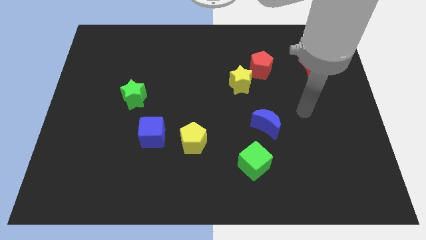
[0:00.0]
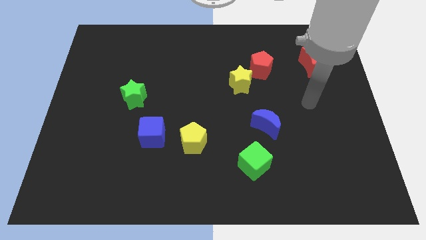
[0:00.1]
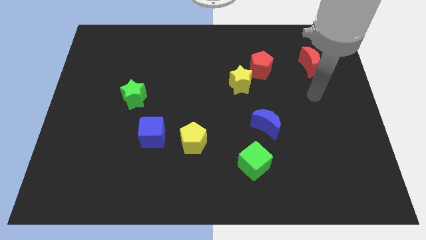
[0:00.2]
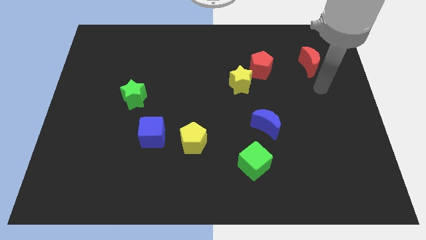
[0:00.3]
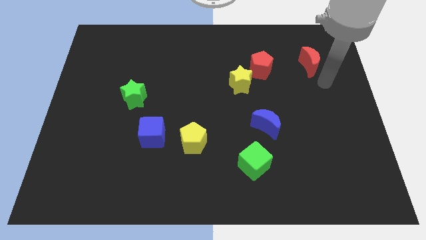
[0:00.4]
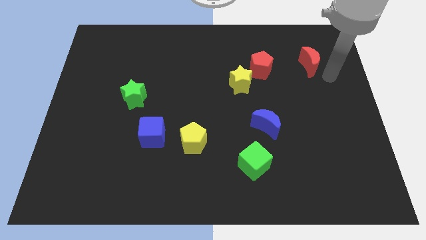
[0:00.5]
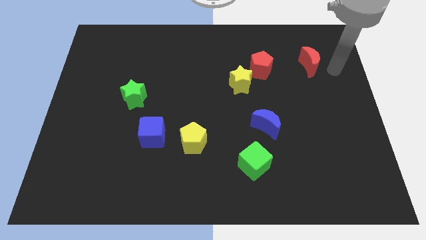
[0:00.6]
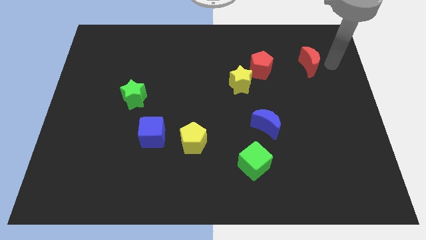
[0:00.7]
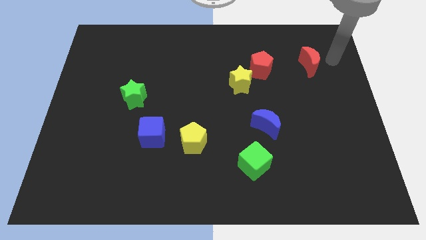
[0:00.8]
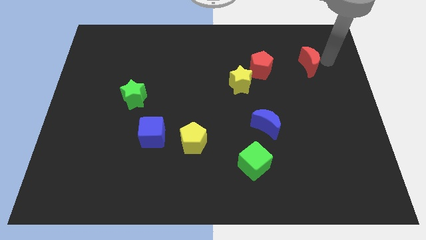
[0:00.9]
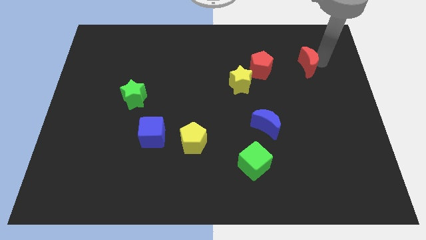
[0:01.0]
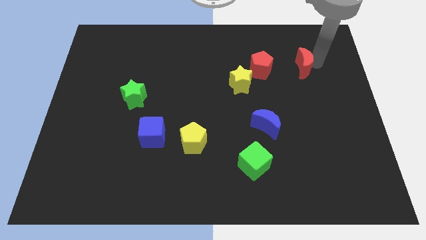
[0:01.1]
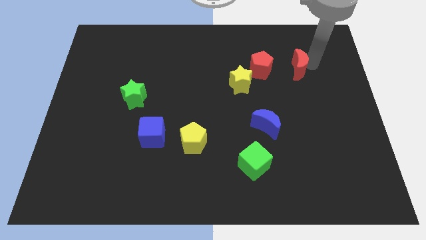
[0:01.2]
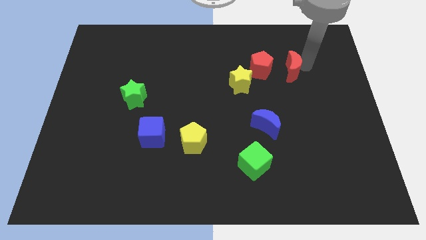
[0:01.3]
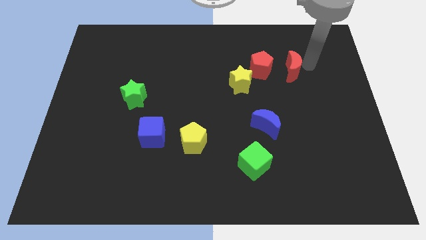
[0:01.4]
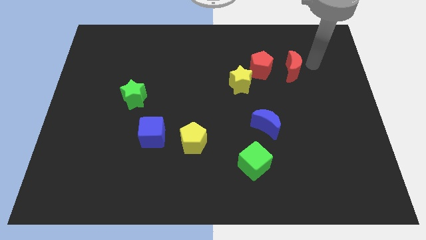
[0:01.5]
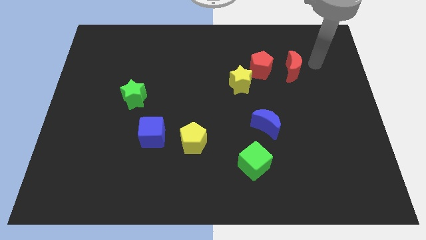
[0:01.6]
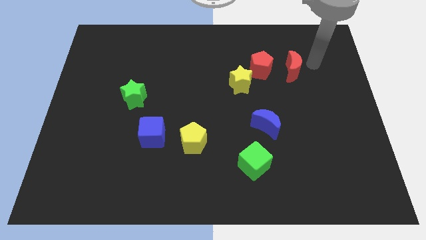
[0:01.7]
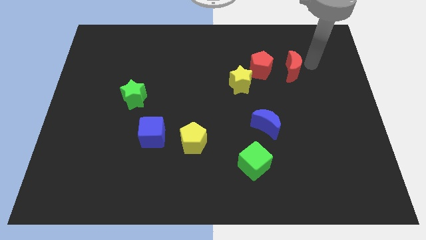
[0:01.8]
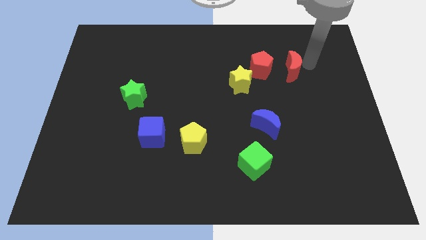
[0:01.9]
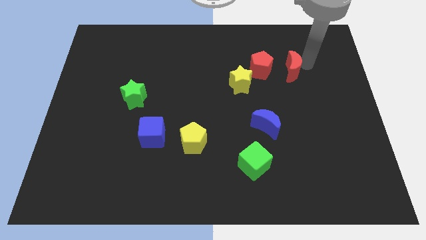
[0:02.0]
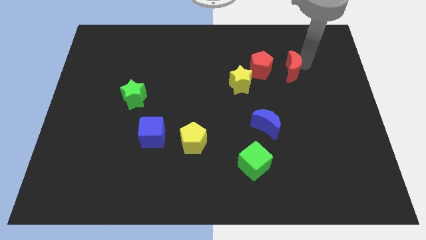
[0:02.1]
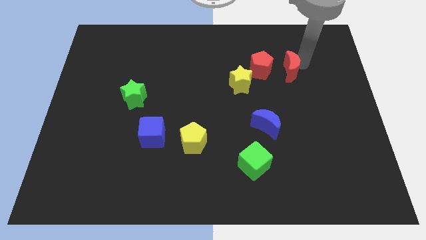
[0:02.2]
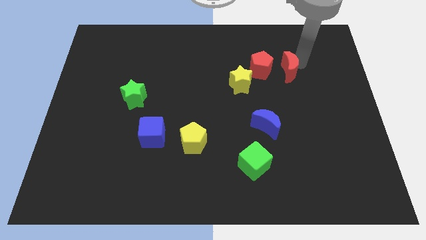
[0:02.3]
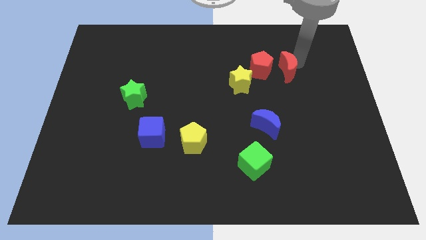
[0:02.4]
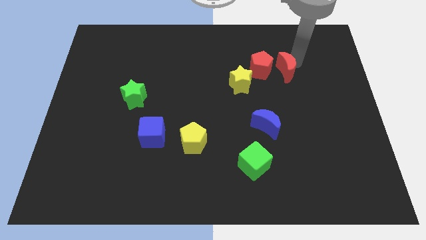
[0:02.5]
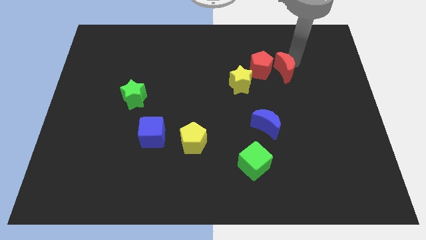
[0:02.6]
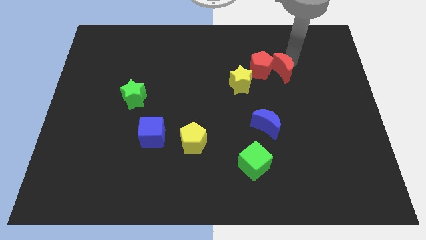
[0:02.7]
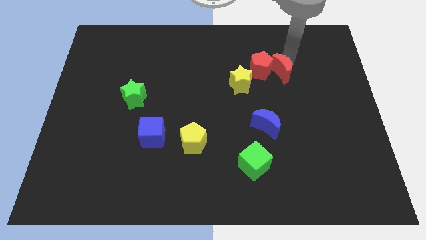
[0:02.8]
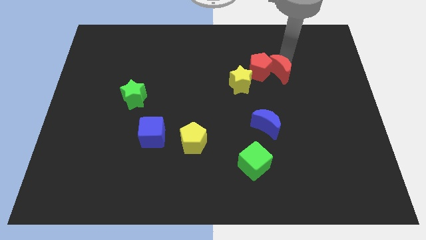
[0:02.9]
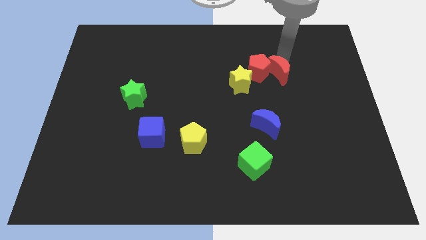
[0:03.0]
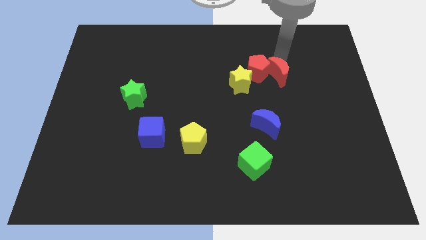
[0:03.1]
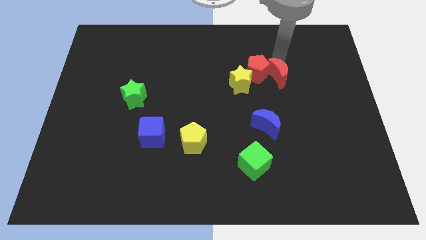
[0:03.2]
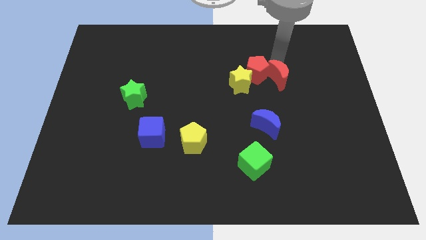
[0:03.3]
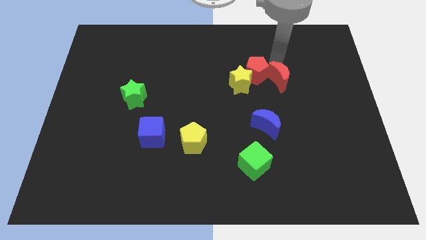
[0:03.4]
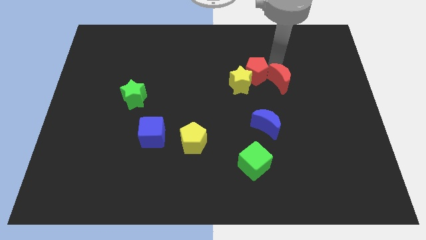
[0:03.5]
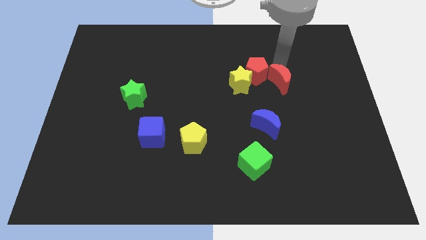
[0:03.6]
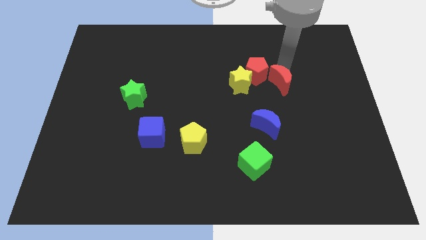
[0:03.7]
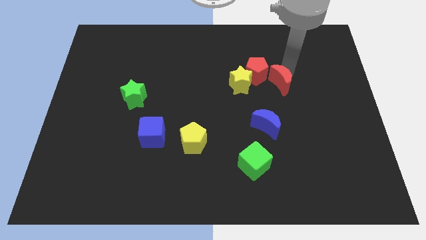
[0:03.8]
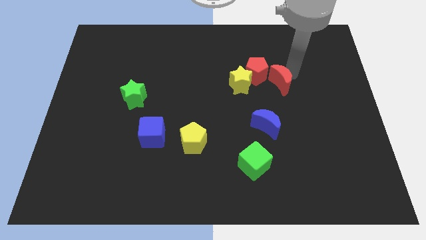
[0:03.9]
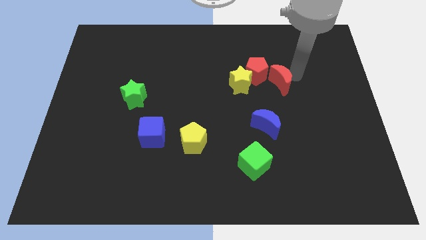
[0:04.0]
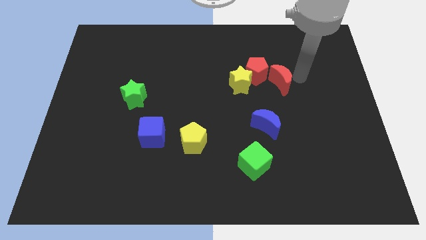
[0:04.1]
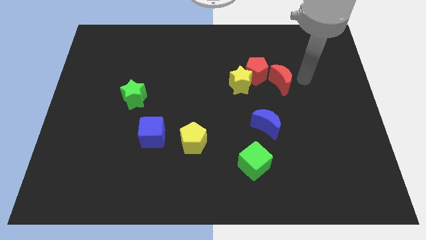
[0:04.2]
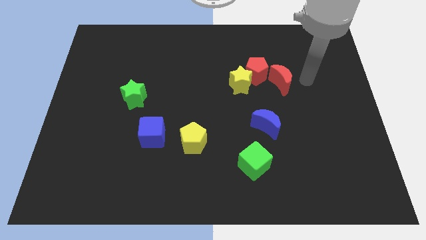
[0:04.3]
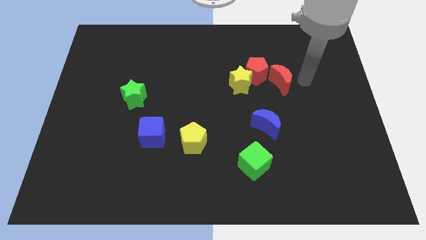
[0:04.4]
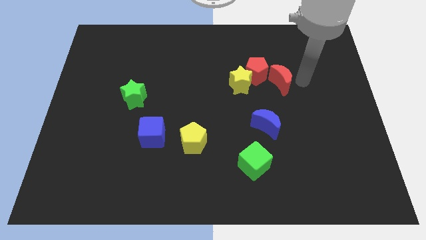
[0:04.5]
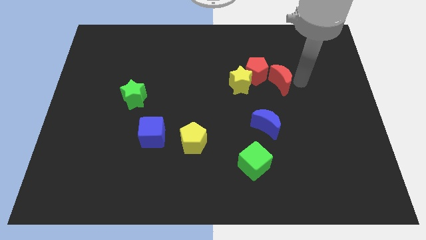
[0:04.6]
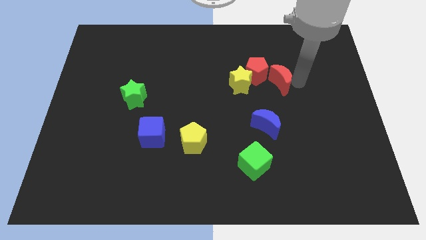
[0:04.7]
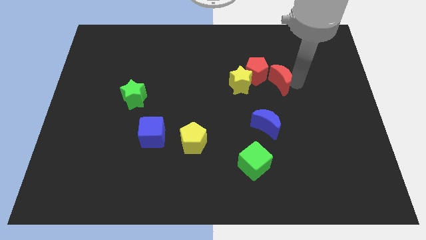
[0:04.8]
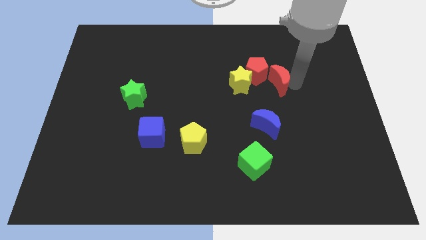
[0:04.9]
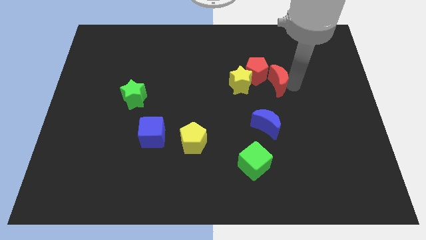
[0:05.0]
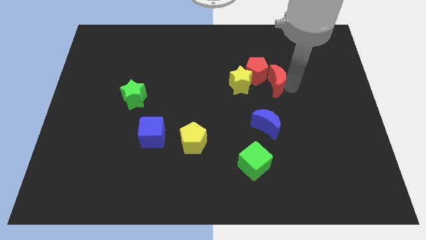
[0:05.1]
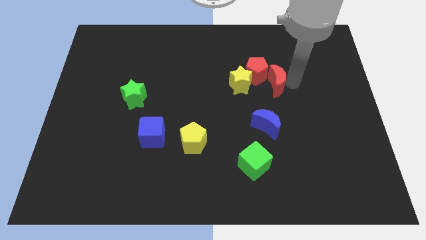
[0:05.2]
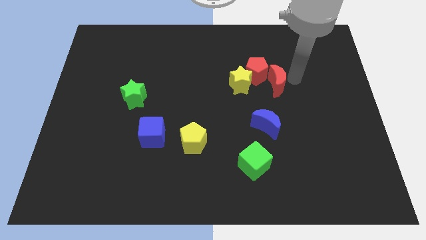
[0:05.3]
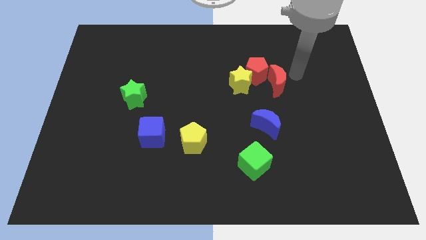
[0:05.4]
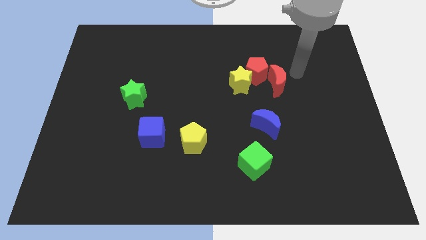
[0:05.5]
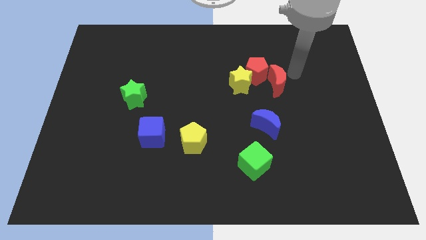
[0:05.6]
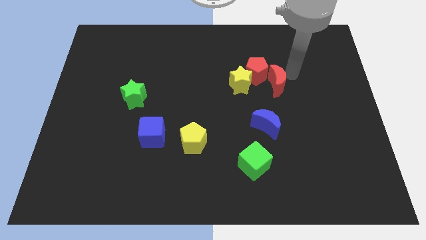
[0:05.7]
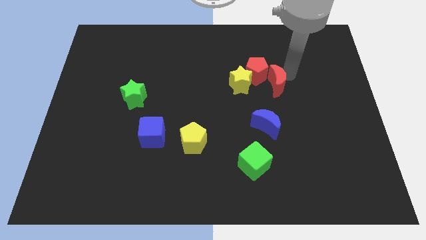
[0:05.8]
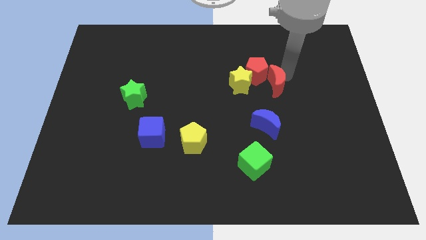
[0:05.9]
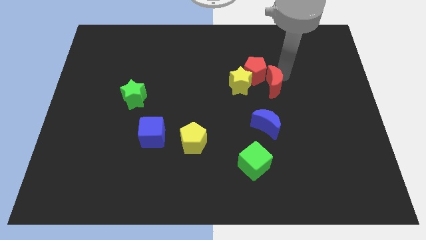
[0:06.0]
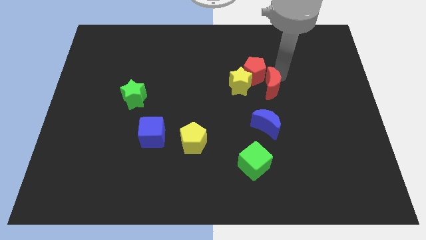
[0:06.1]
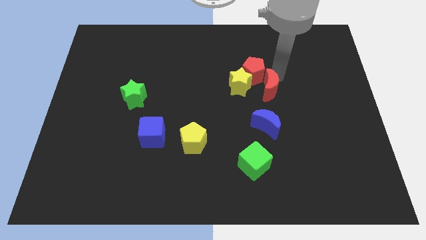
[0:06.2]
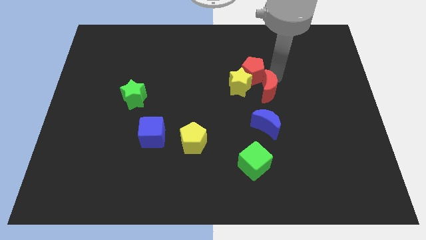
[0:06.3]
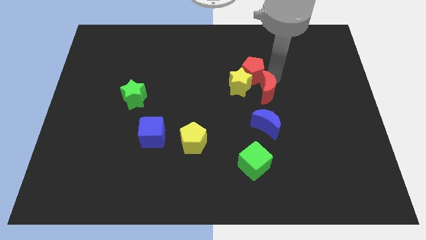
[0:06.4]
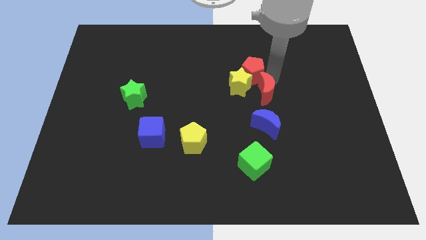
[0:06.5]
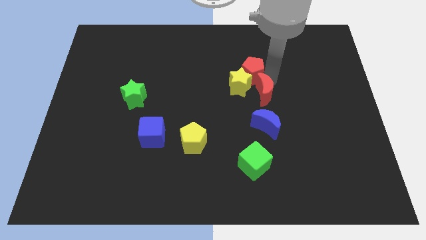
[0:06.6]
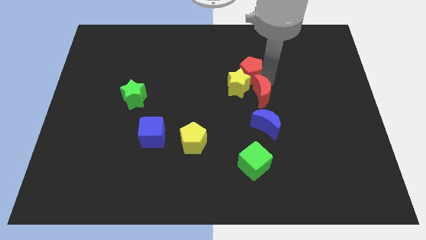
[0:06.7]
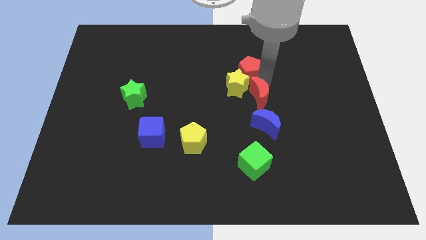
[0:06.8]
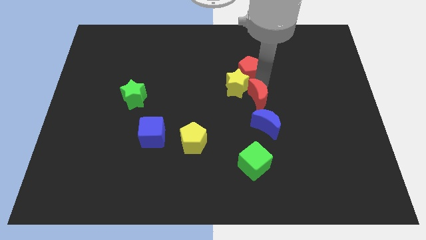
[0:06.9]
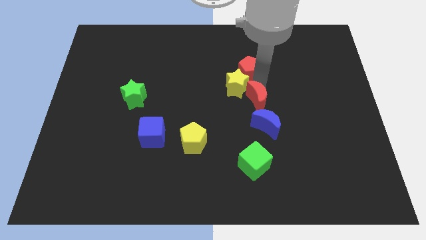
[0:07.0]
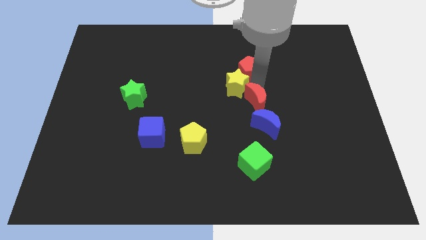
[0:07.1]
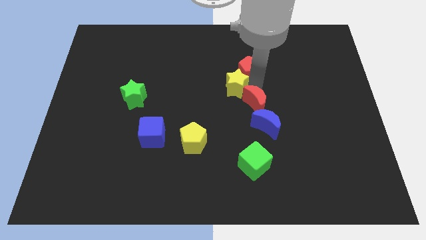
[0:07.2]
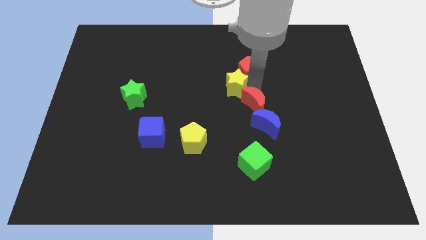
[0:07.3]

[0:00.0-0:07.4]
move the red moon diagonally downwards and left

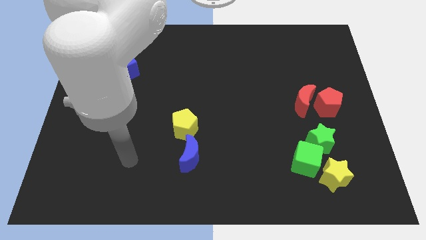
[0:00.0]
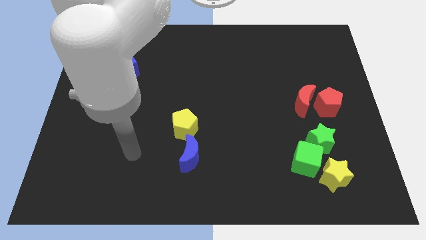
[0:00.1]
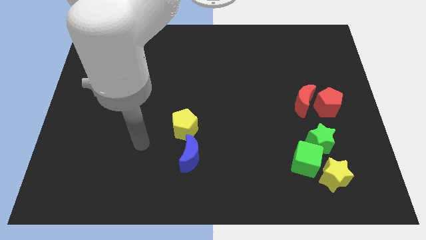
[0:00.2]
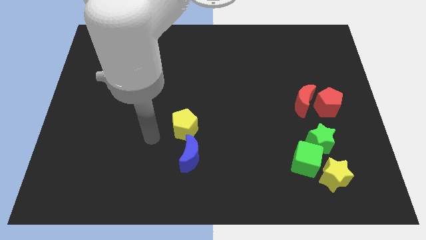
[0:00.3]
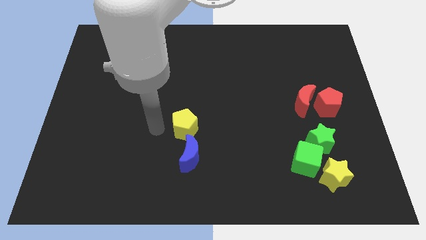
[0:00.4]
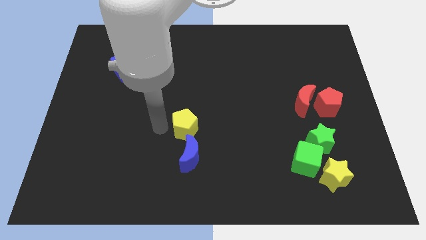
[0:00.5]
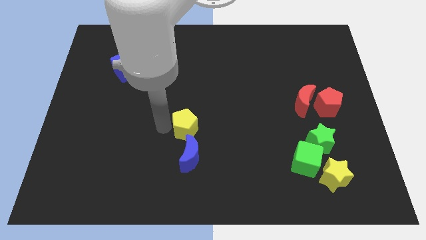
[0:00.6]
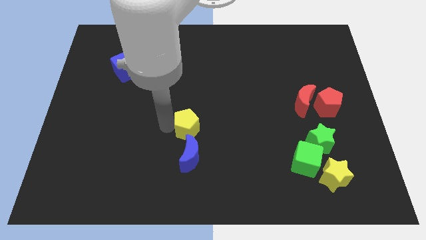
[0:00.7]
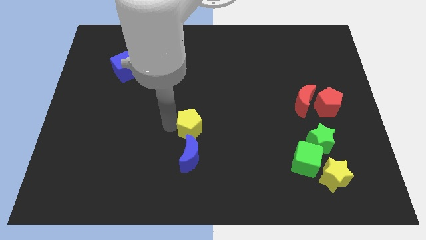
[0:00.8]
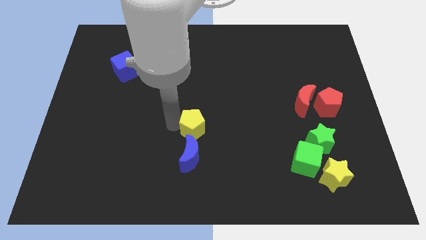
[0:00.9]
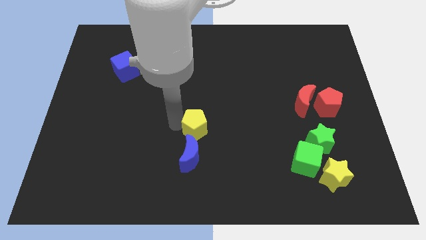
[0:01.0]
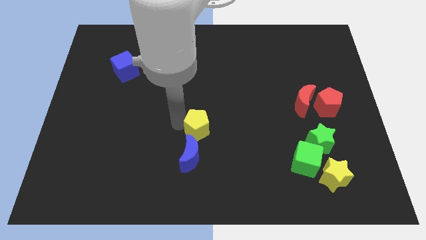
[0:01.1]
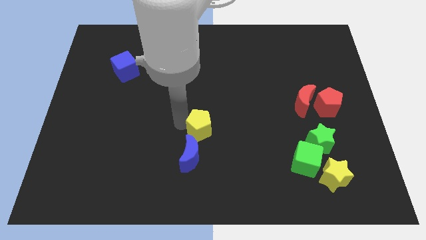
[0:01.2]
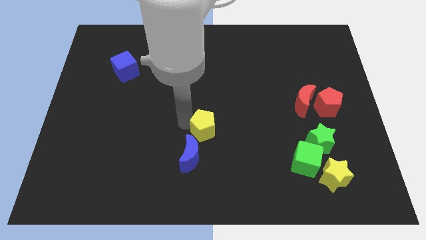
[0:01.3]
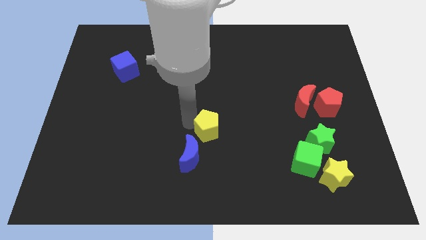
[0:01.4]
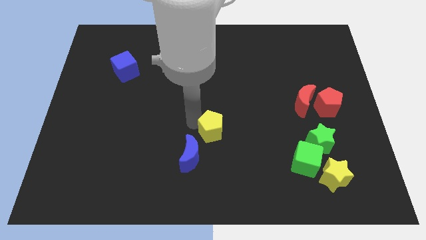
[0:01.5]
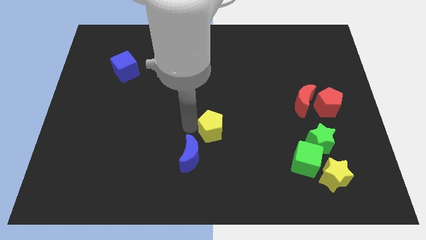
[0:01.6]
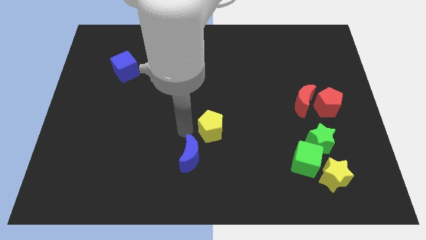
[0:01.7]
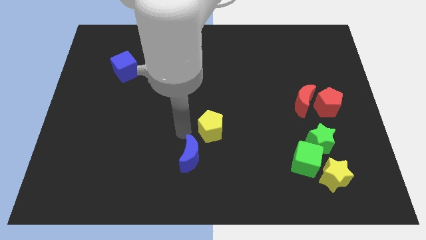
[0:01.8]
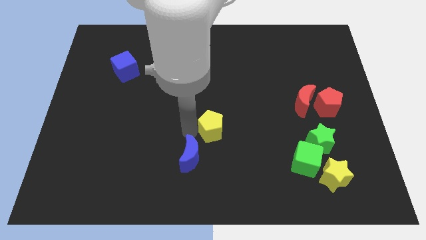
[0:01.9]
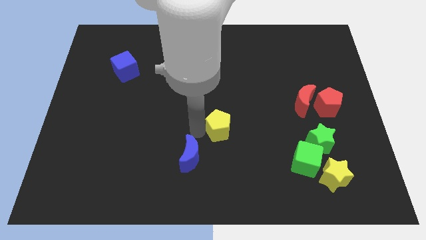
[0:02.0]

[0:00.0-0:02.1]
slide the yellow pentagon right a little
